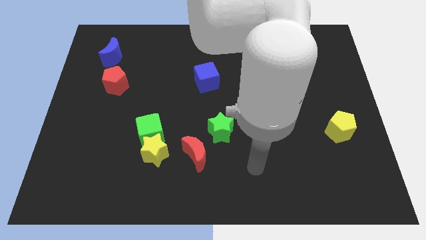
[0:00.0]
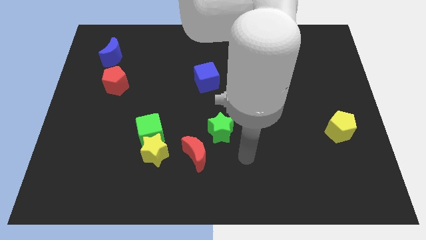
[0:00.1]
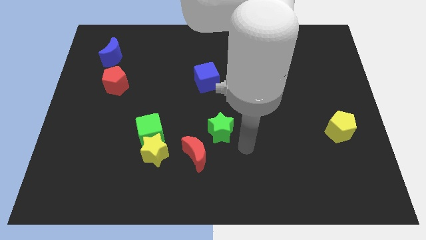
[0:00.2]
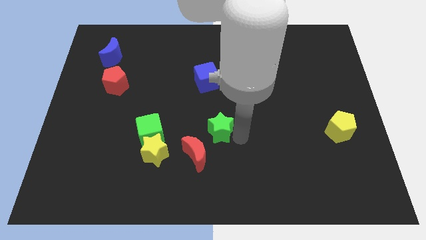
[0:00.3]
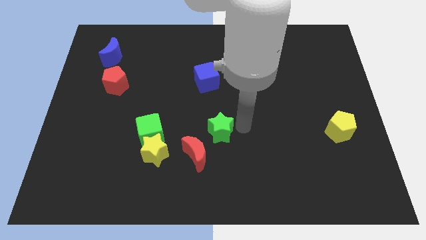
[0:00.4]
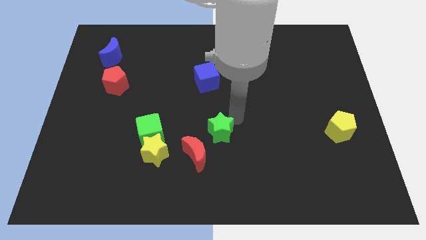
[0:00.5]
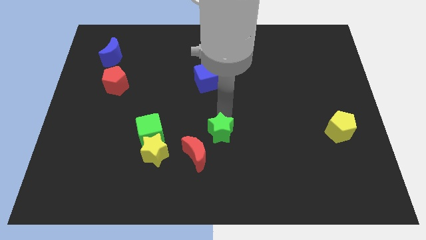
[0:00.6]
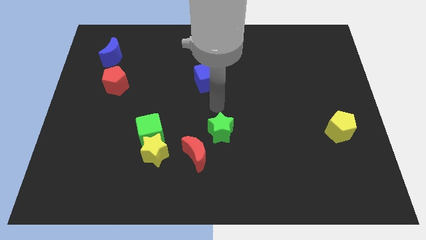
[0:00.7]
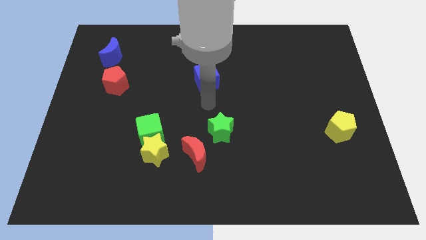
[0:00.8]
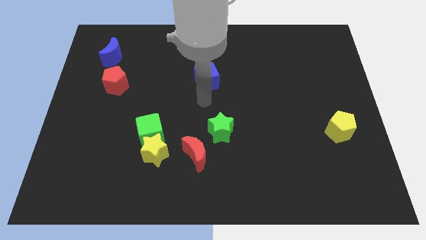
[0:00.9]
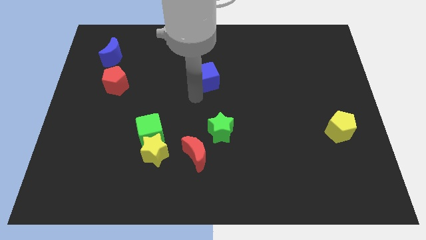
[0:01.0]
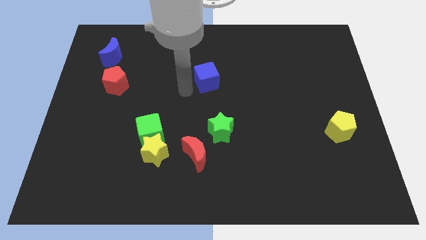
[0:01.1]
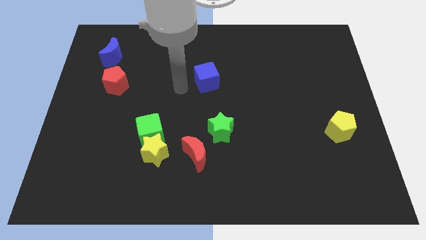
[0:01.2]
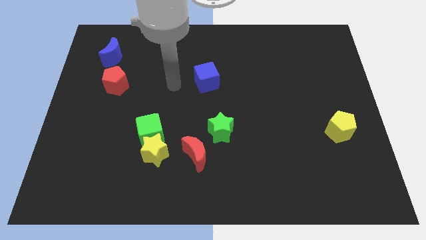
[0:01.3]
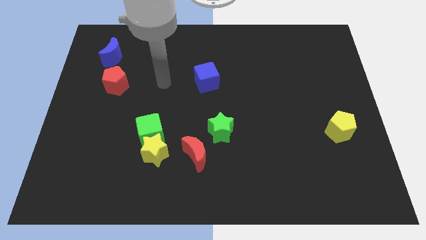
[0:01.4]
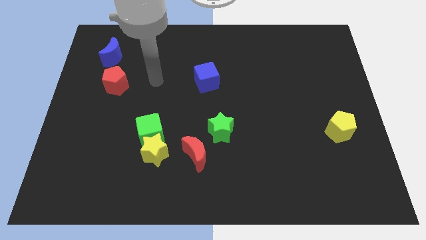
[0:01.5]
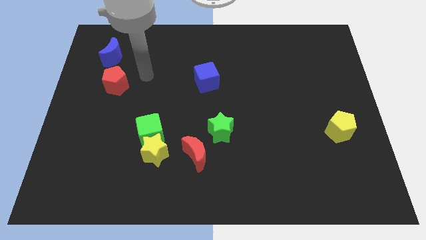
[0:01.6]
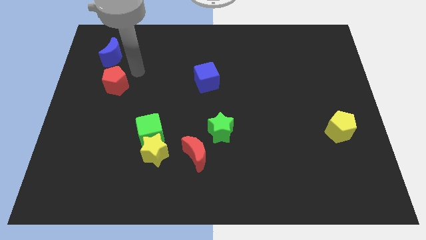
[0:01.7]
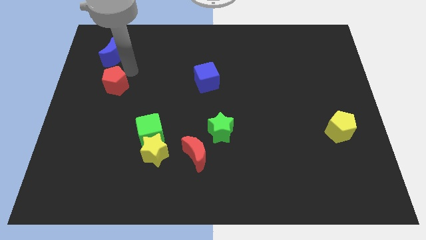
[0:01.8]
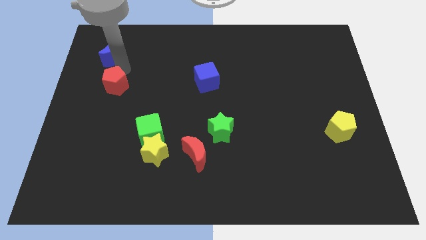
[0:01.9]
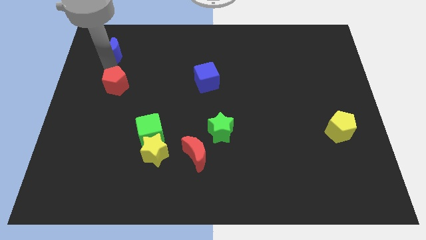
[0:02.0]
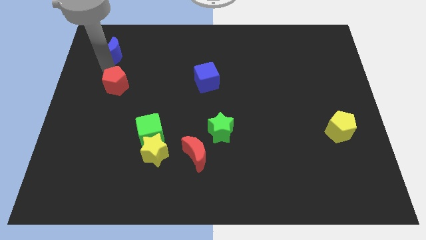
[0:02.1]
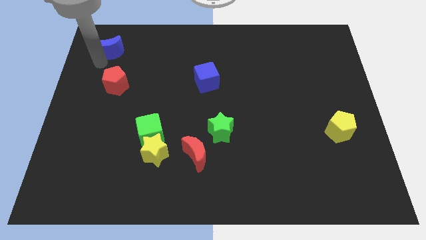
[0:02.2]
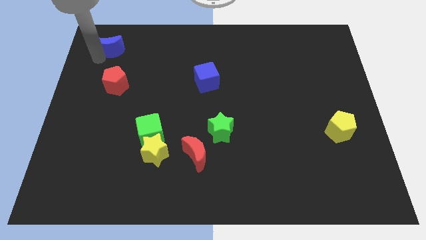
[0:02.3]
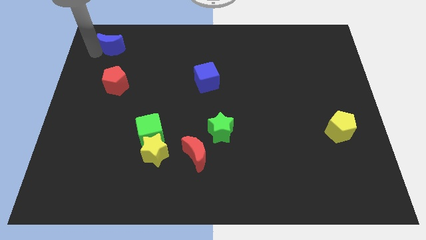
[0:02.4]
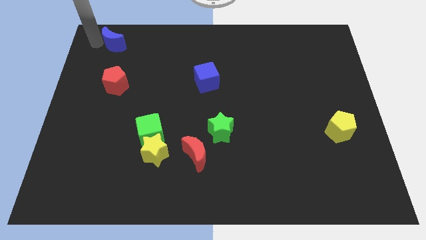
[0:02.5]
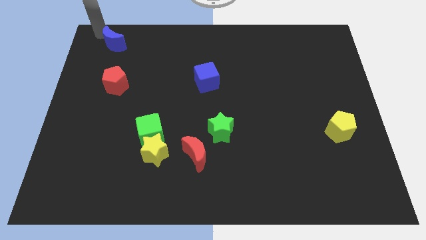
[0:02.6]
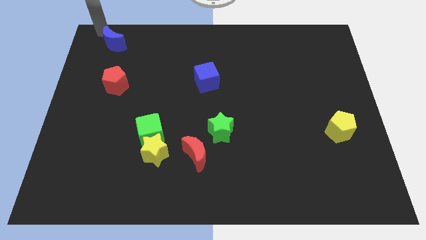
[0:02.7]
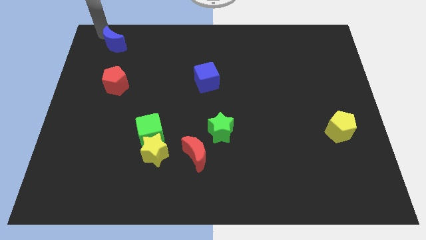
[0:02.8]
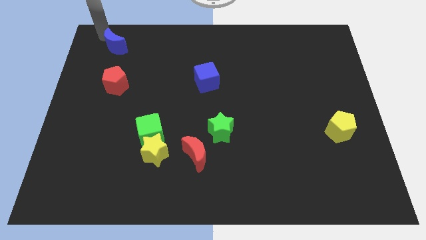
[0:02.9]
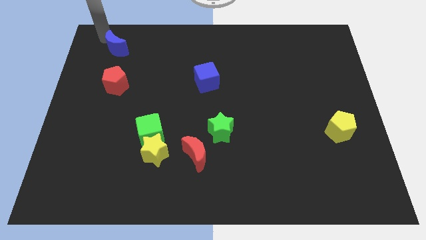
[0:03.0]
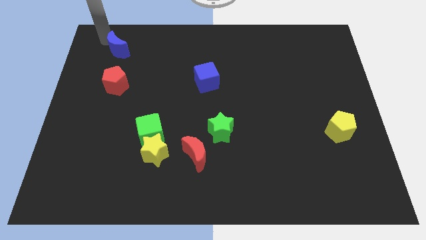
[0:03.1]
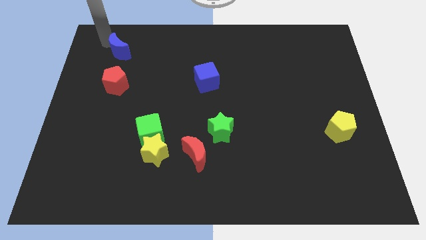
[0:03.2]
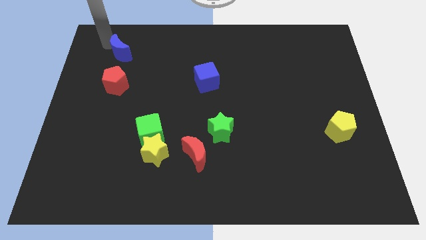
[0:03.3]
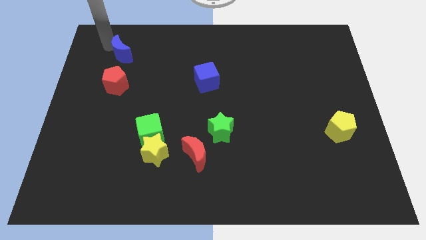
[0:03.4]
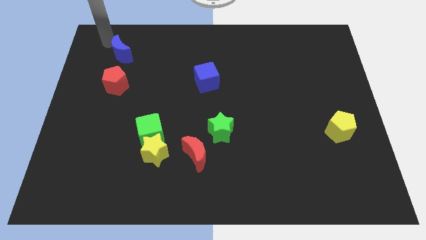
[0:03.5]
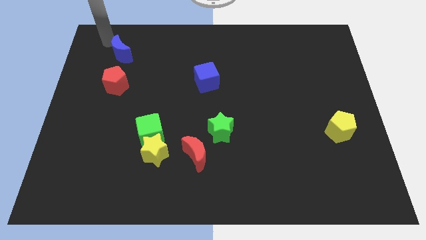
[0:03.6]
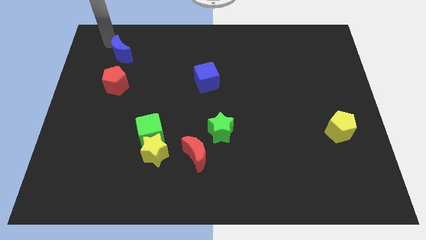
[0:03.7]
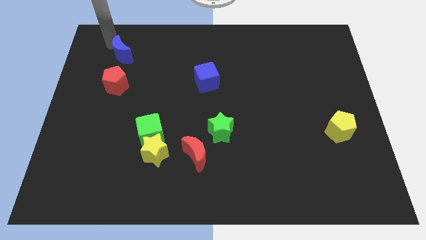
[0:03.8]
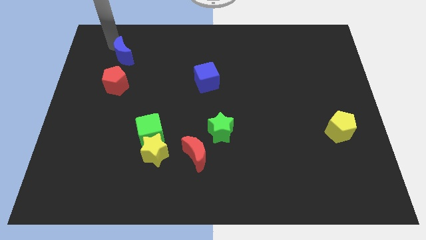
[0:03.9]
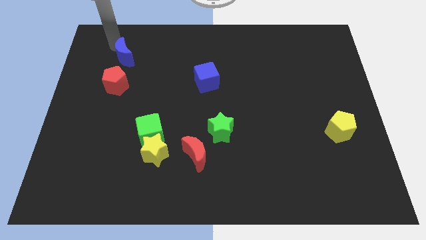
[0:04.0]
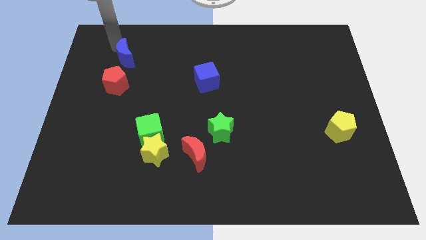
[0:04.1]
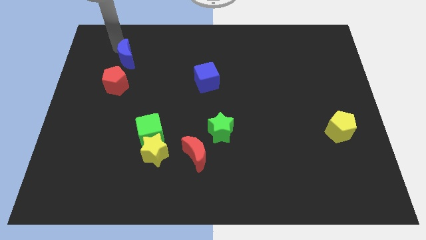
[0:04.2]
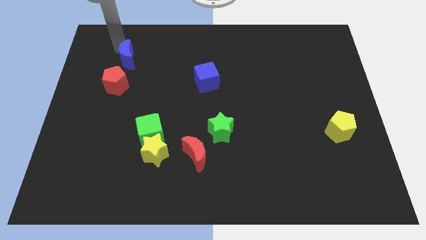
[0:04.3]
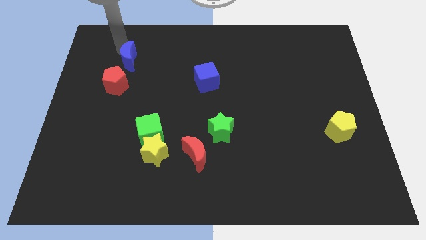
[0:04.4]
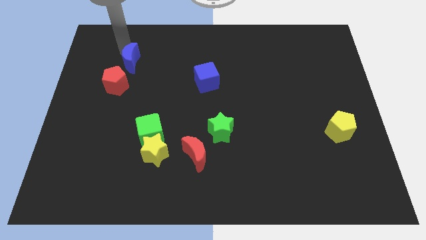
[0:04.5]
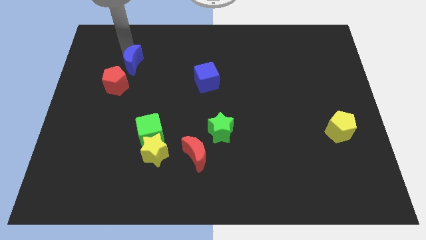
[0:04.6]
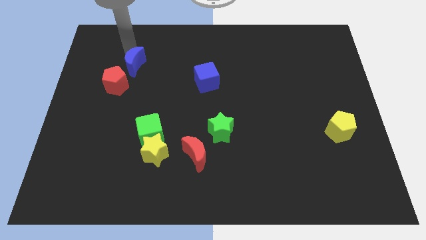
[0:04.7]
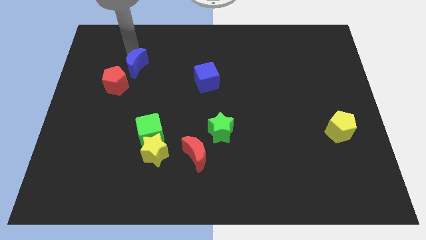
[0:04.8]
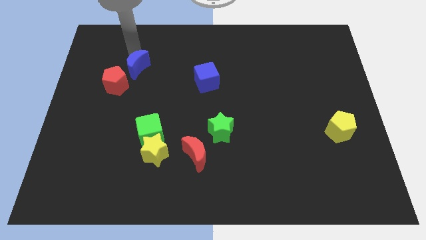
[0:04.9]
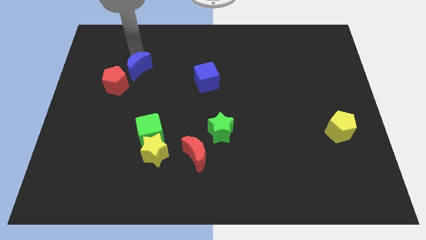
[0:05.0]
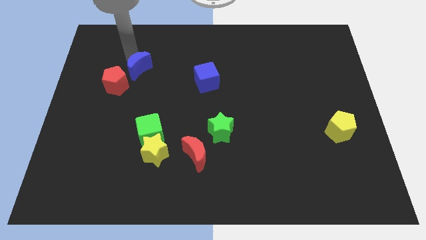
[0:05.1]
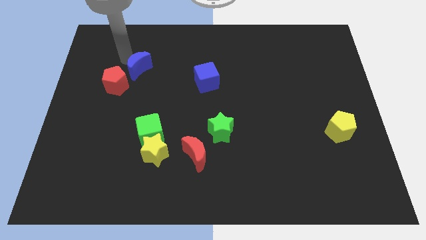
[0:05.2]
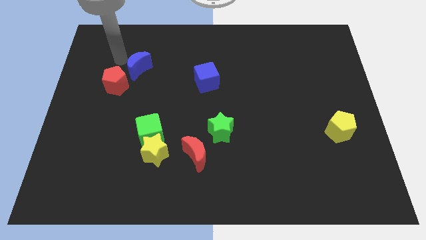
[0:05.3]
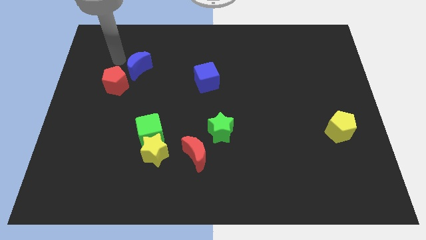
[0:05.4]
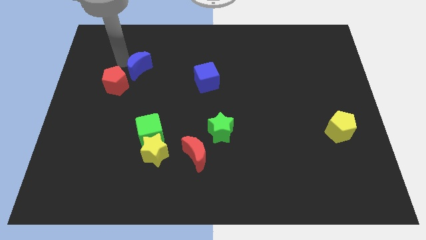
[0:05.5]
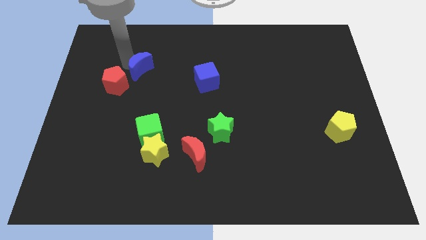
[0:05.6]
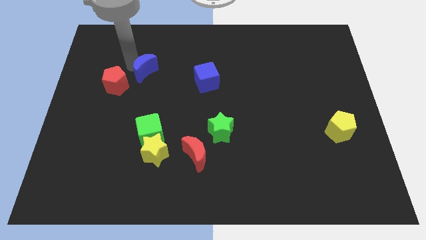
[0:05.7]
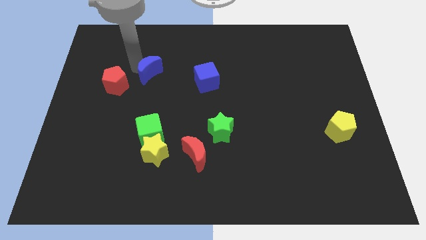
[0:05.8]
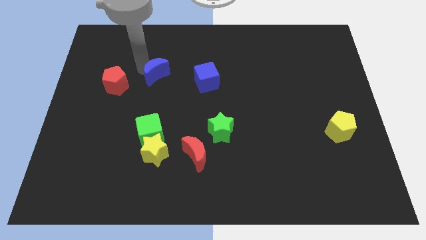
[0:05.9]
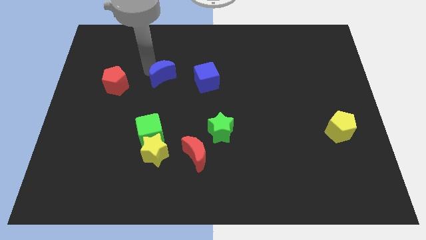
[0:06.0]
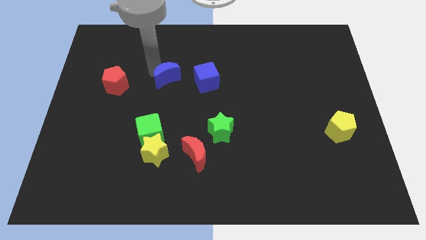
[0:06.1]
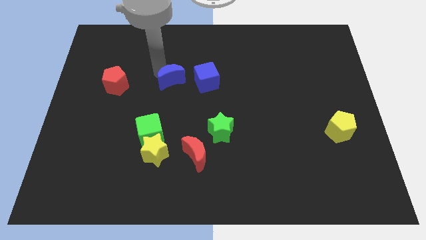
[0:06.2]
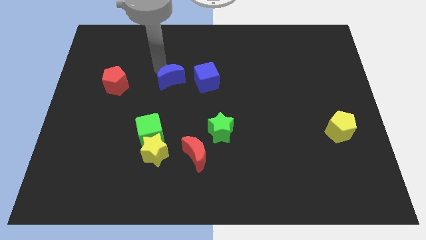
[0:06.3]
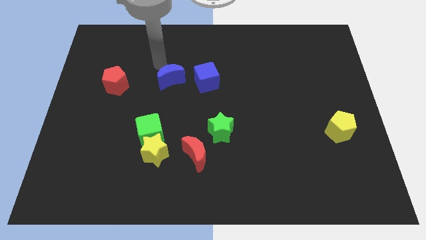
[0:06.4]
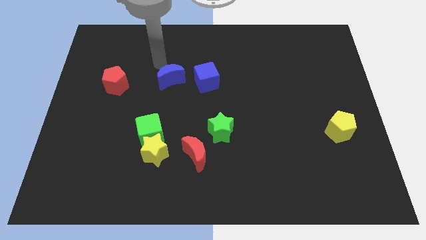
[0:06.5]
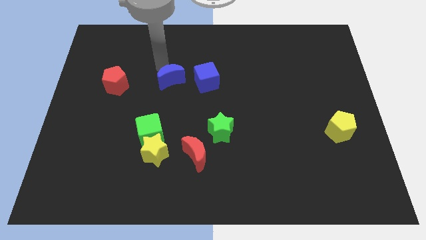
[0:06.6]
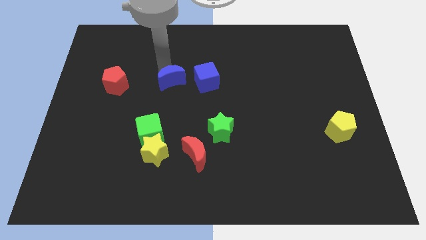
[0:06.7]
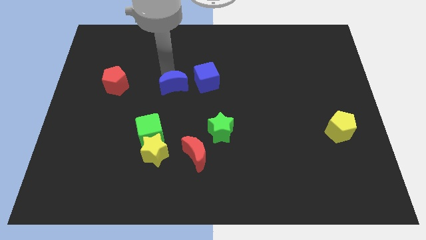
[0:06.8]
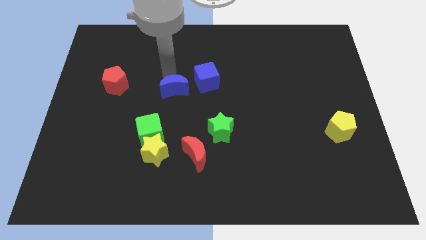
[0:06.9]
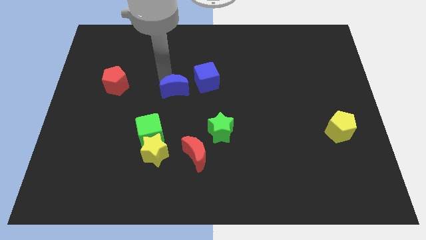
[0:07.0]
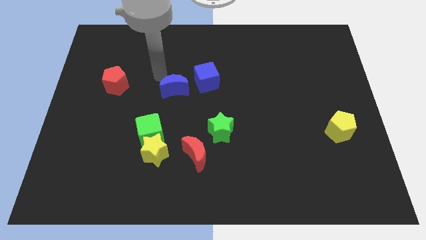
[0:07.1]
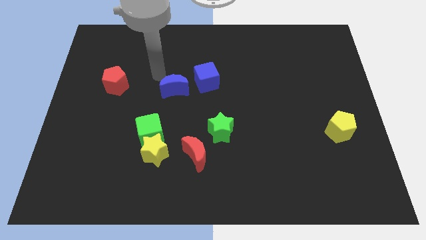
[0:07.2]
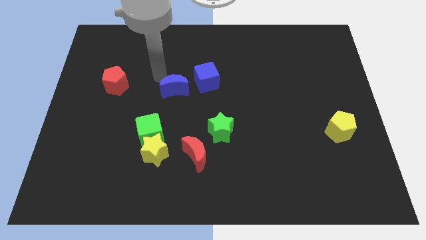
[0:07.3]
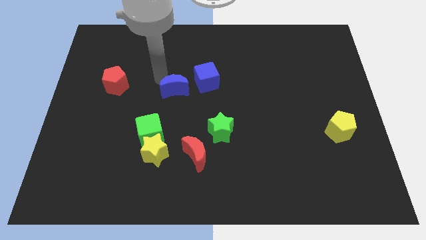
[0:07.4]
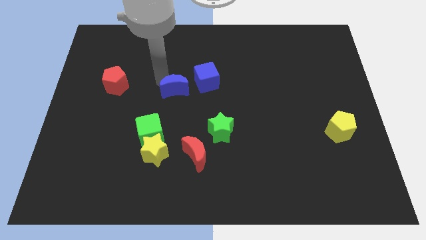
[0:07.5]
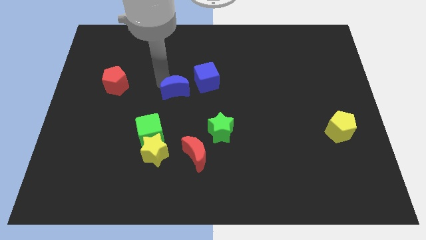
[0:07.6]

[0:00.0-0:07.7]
push the blue moon down and then right

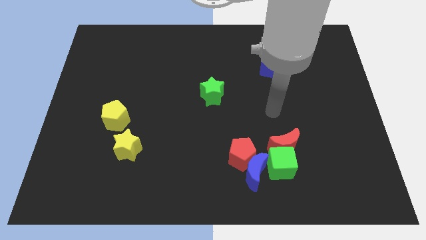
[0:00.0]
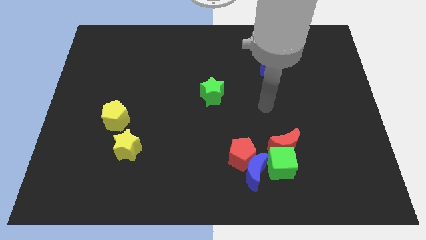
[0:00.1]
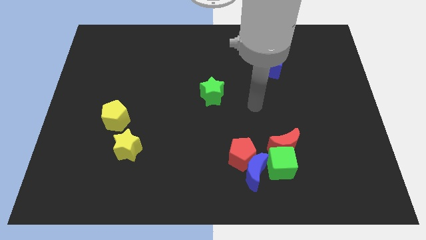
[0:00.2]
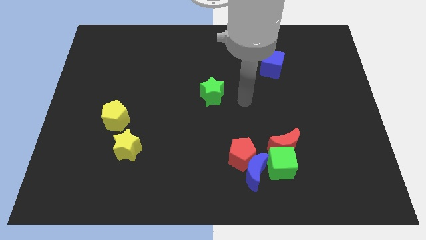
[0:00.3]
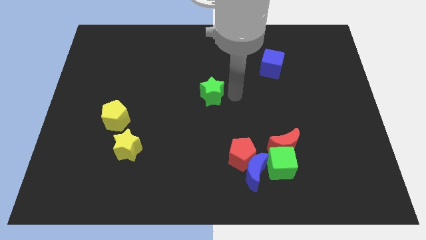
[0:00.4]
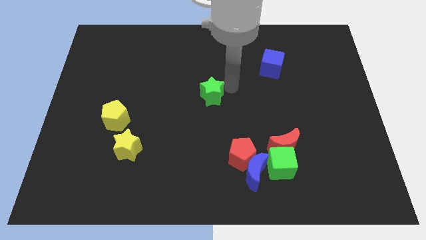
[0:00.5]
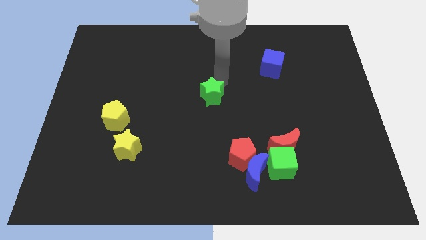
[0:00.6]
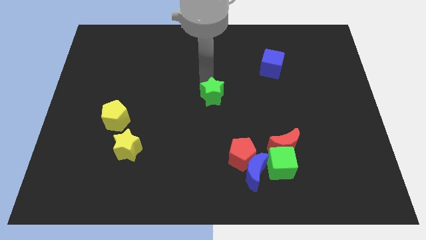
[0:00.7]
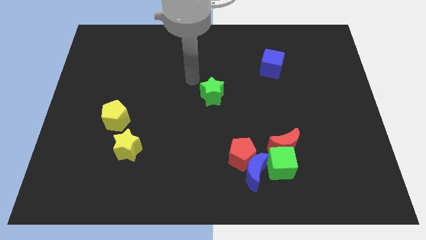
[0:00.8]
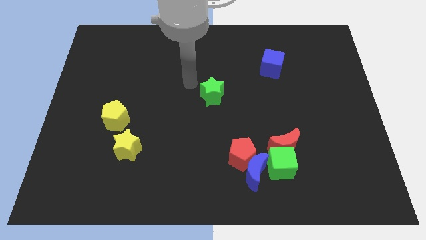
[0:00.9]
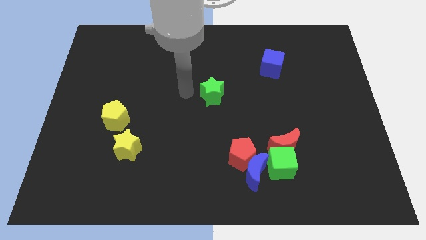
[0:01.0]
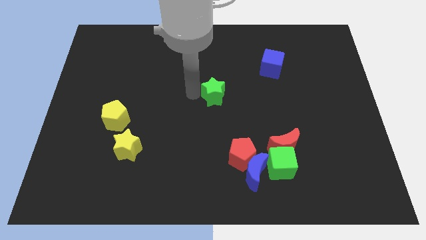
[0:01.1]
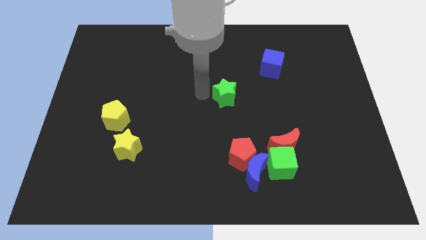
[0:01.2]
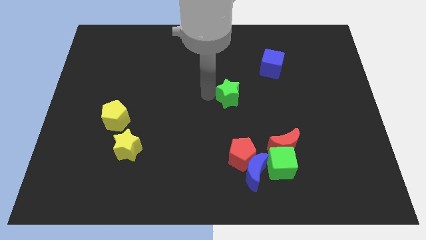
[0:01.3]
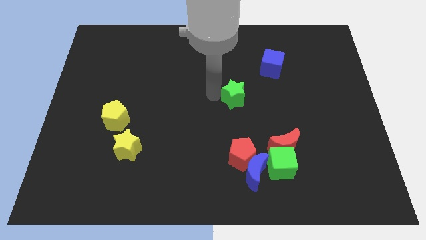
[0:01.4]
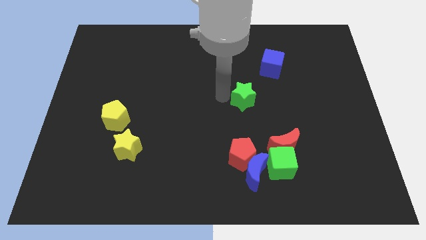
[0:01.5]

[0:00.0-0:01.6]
push the green star a little bit to the right
